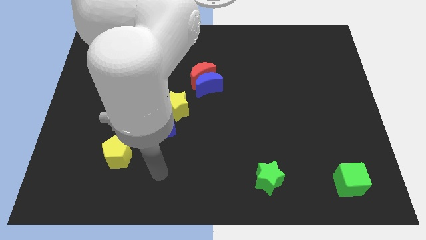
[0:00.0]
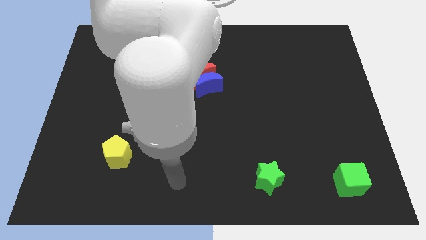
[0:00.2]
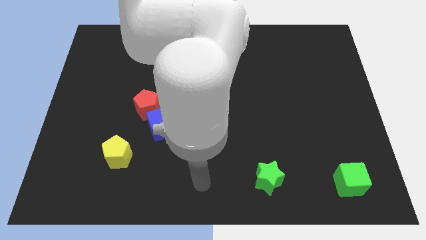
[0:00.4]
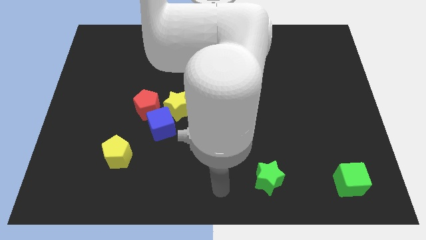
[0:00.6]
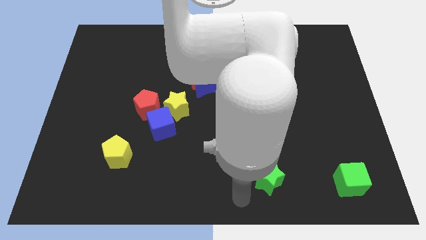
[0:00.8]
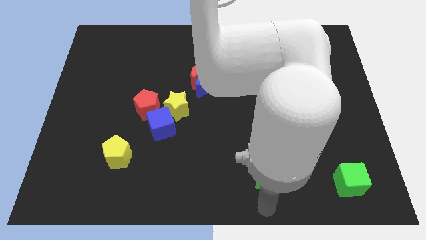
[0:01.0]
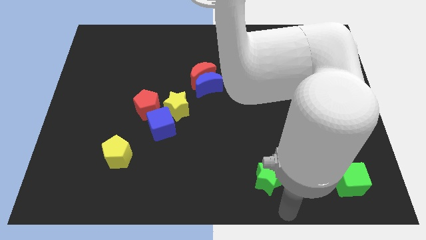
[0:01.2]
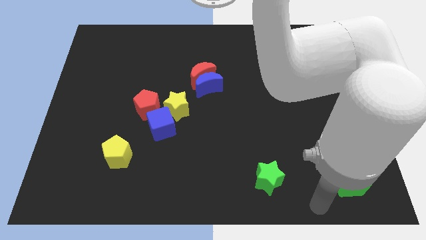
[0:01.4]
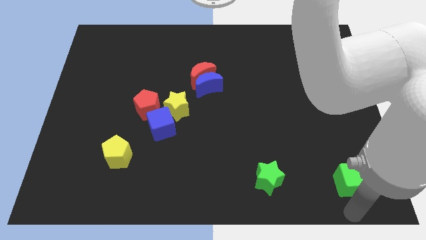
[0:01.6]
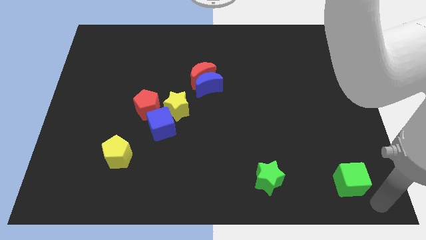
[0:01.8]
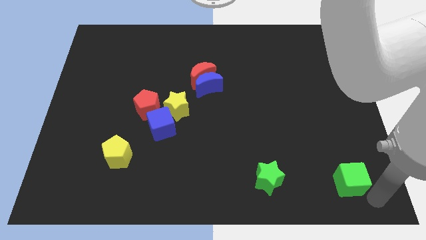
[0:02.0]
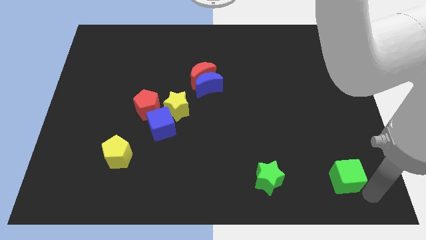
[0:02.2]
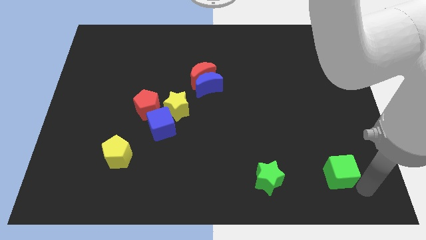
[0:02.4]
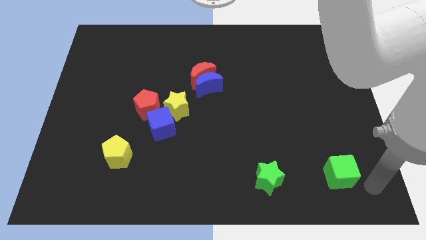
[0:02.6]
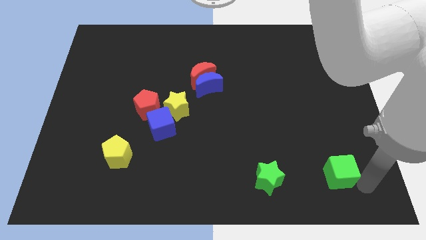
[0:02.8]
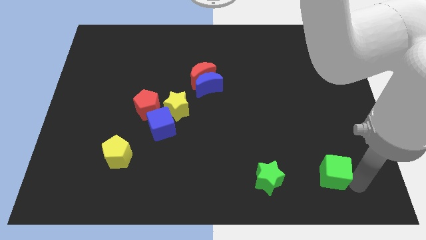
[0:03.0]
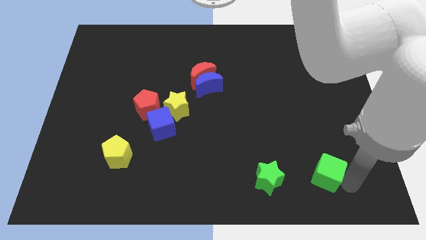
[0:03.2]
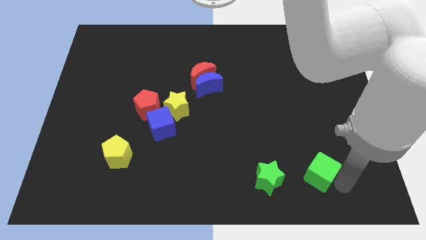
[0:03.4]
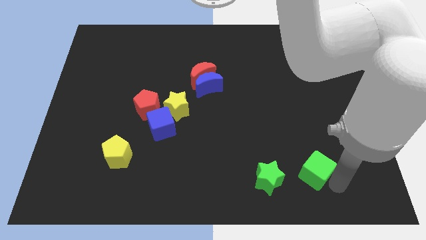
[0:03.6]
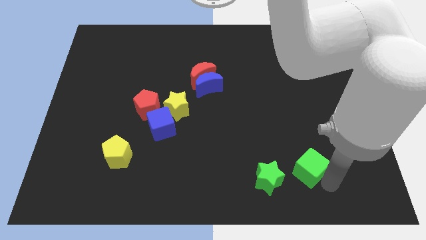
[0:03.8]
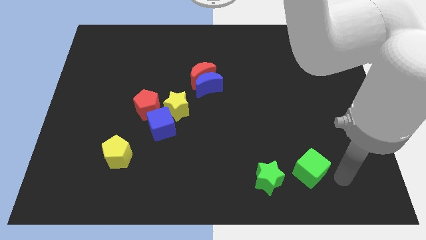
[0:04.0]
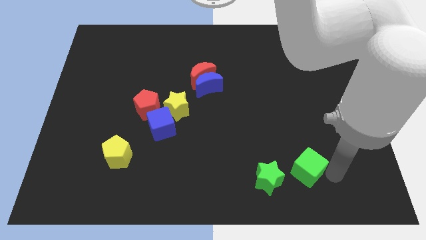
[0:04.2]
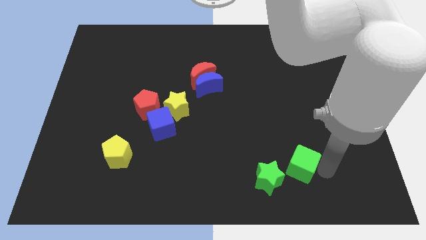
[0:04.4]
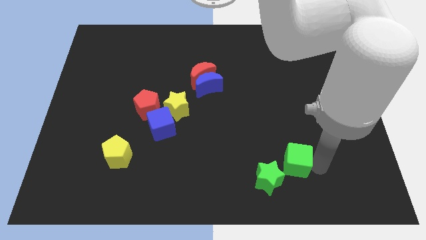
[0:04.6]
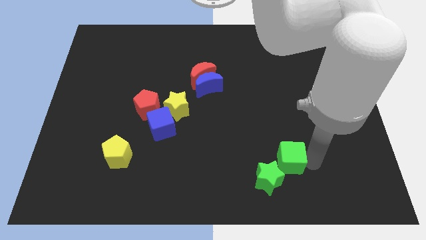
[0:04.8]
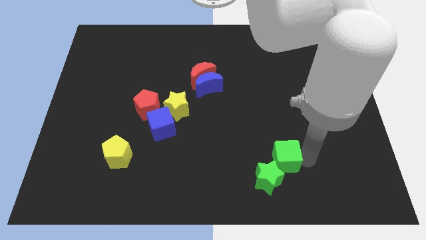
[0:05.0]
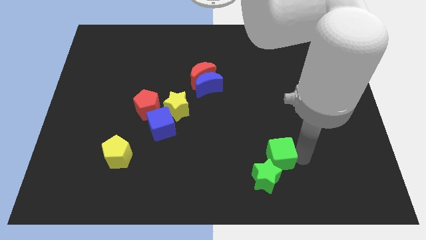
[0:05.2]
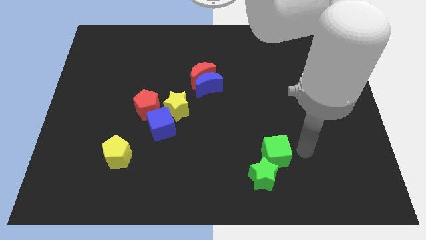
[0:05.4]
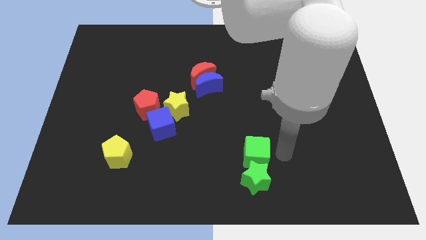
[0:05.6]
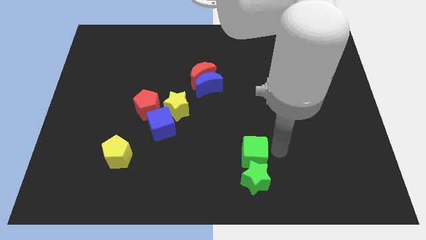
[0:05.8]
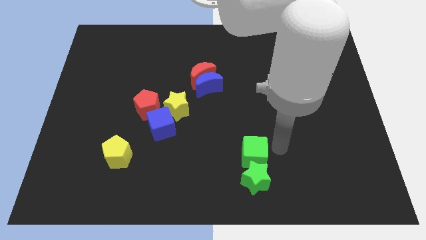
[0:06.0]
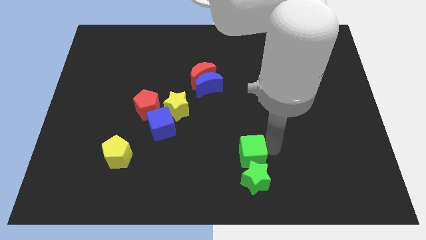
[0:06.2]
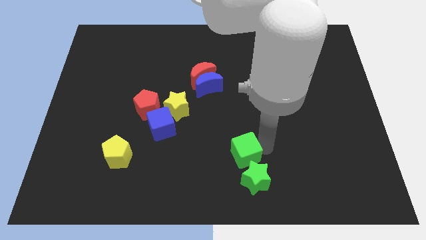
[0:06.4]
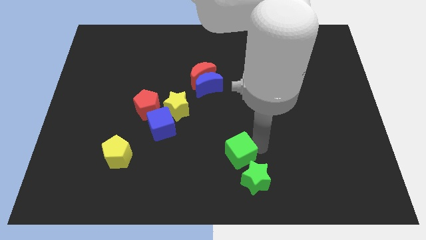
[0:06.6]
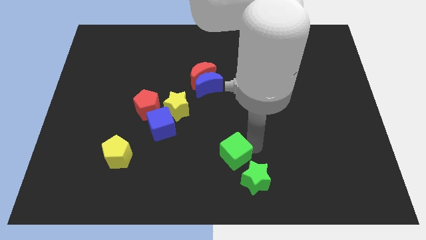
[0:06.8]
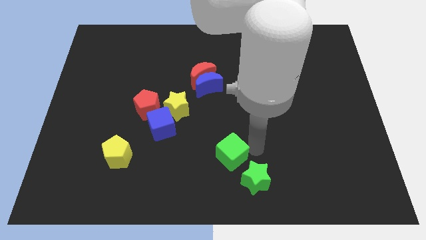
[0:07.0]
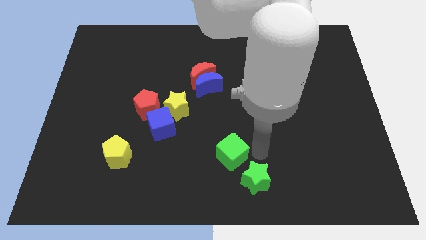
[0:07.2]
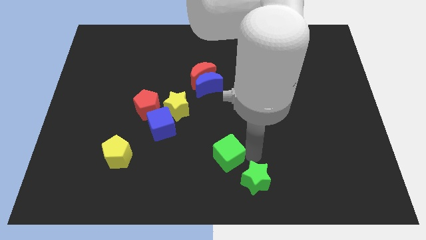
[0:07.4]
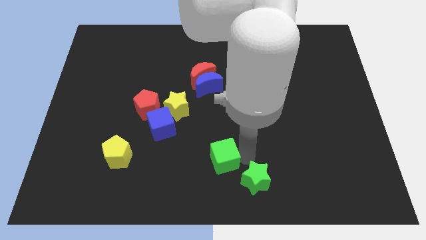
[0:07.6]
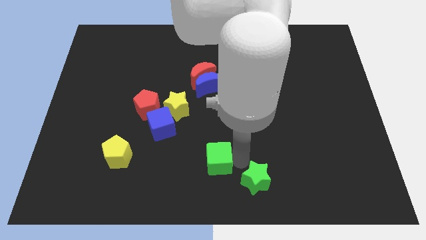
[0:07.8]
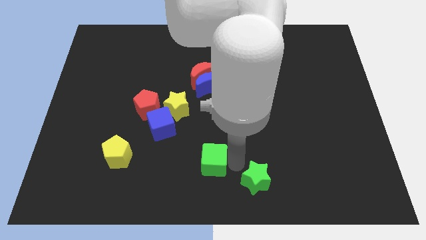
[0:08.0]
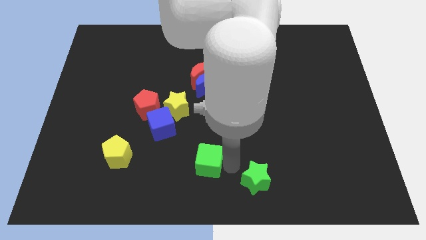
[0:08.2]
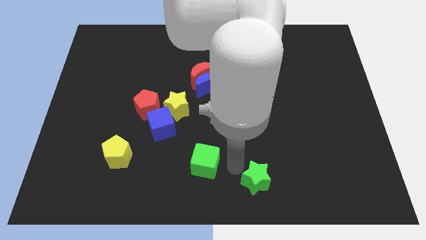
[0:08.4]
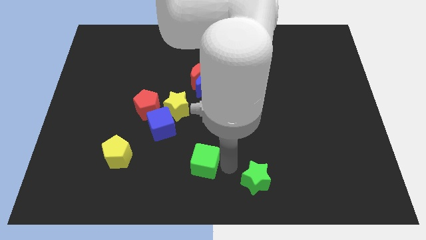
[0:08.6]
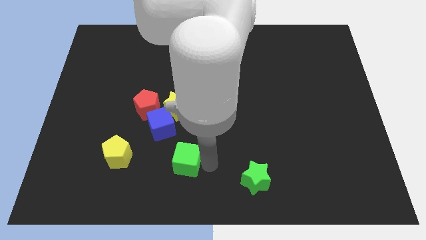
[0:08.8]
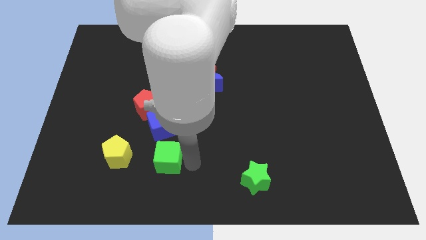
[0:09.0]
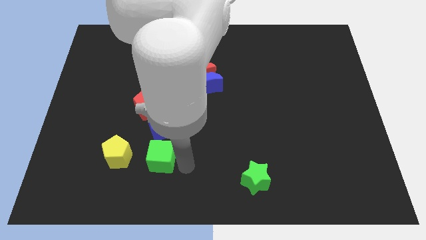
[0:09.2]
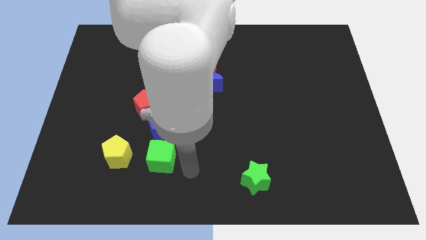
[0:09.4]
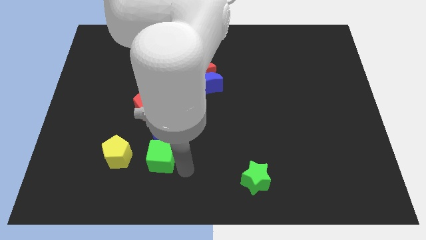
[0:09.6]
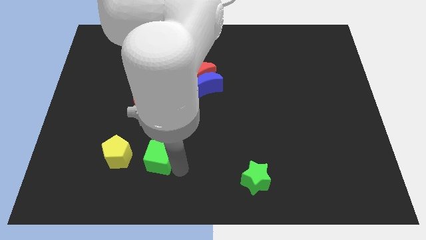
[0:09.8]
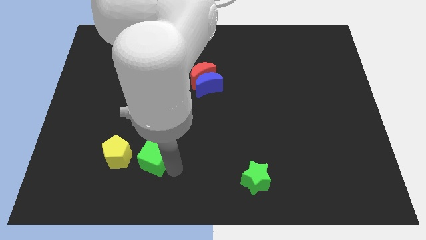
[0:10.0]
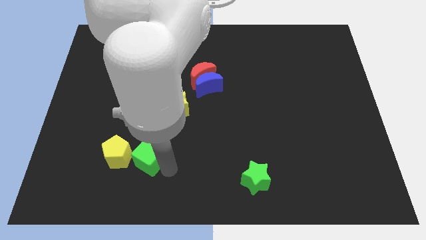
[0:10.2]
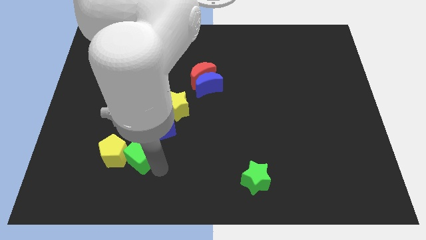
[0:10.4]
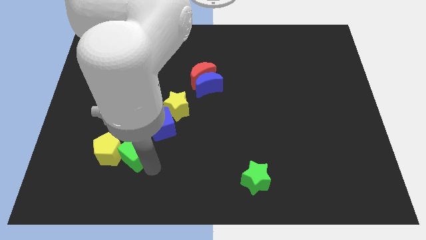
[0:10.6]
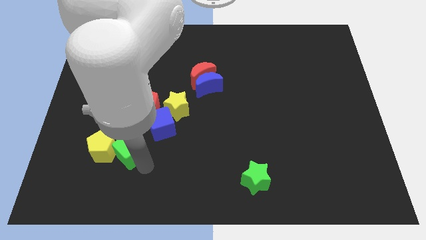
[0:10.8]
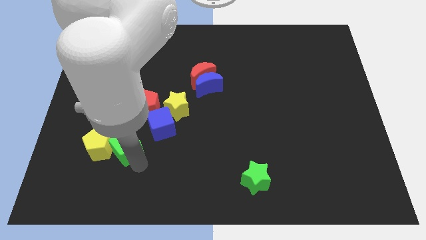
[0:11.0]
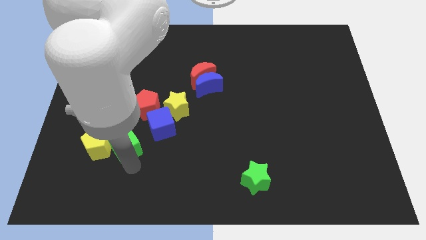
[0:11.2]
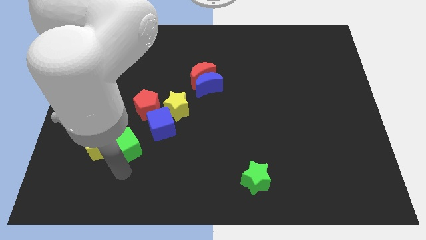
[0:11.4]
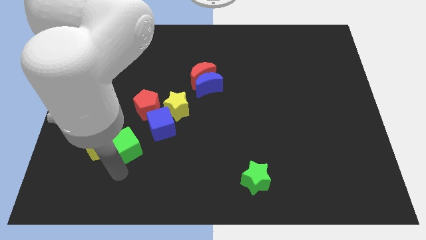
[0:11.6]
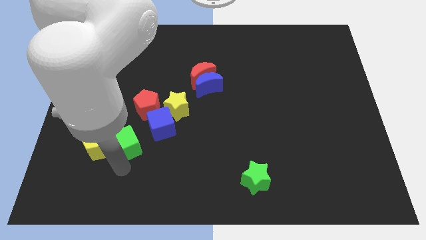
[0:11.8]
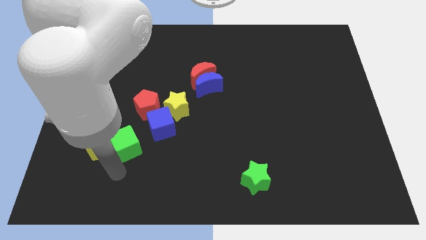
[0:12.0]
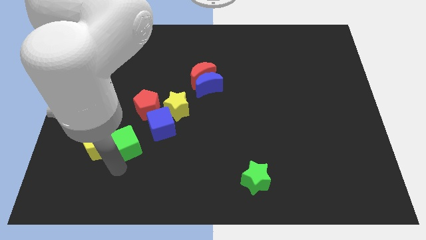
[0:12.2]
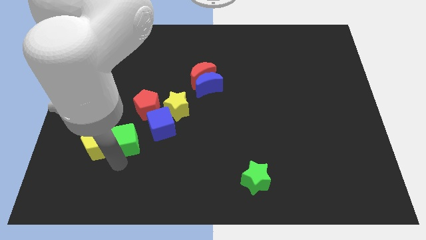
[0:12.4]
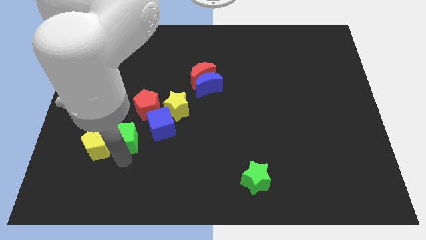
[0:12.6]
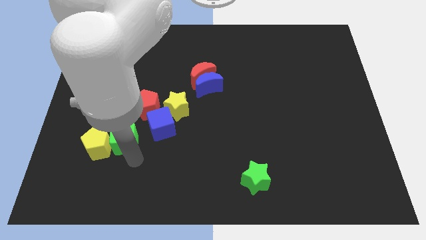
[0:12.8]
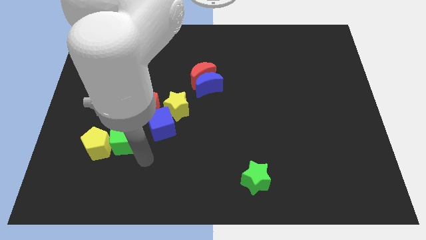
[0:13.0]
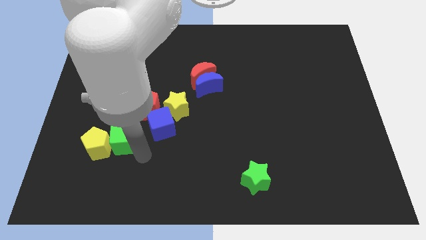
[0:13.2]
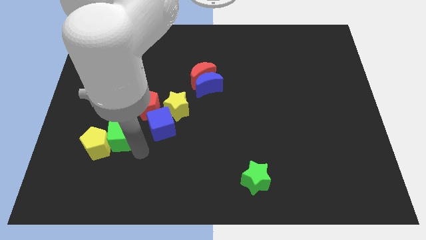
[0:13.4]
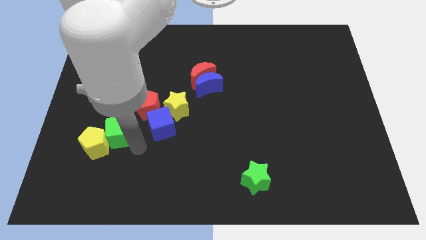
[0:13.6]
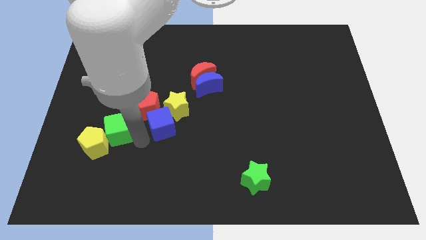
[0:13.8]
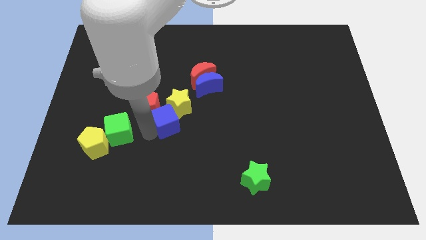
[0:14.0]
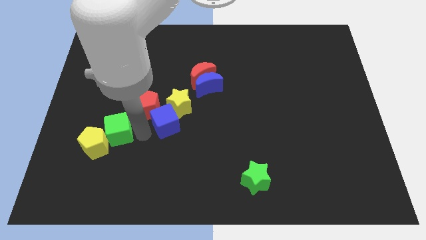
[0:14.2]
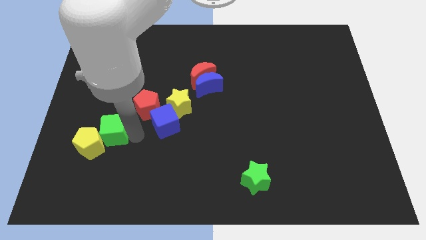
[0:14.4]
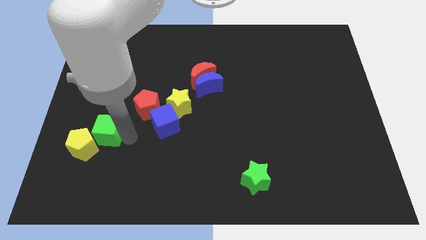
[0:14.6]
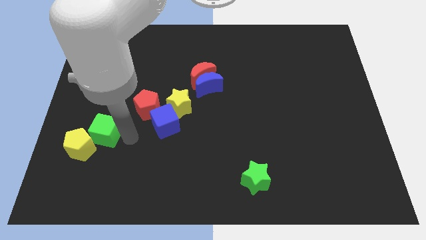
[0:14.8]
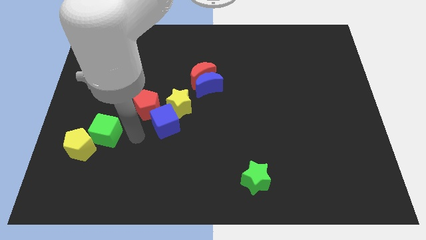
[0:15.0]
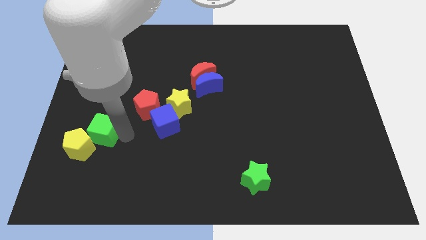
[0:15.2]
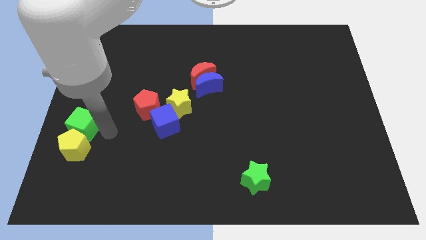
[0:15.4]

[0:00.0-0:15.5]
move the green cube to the center left
